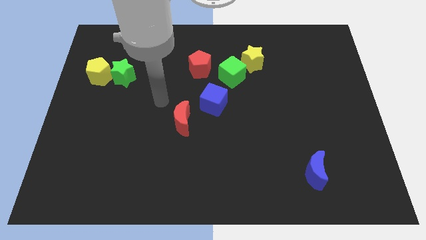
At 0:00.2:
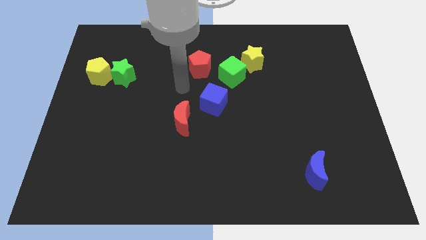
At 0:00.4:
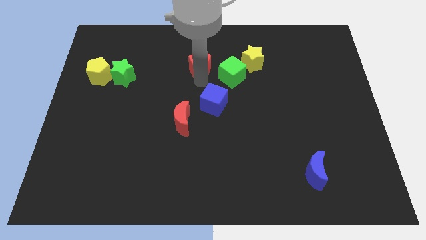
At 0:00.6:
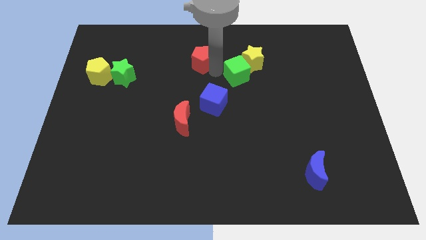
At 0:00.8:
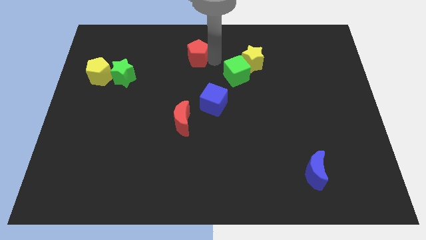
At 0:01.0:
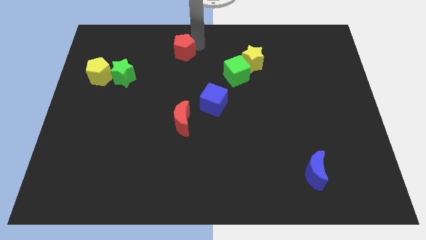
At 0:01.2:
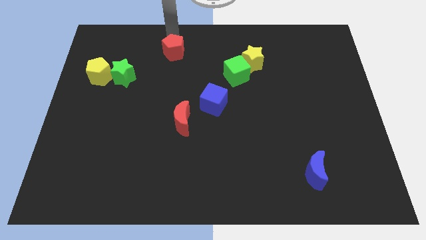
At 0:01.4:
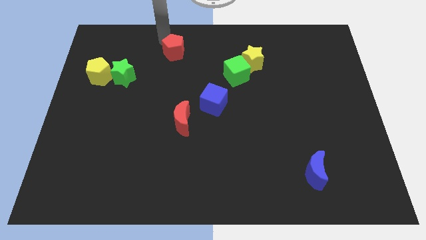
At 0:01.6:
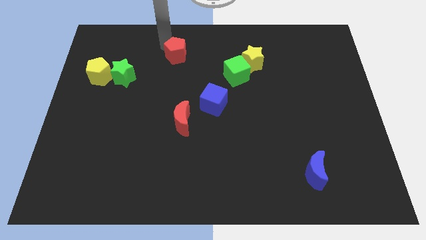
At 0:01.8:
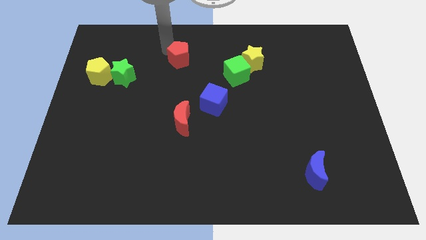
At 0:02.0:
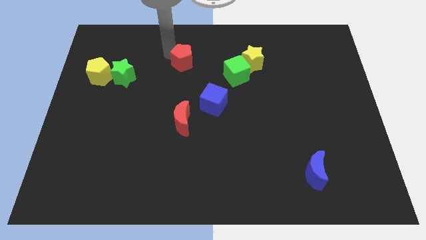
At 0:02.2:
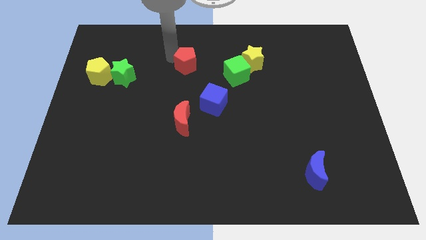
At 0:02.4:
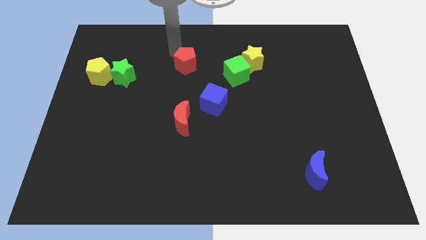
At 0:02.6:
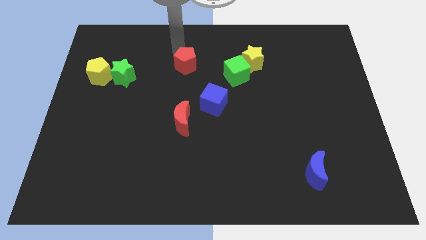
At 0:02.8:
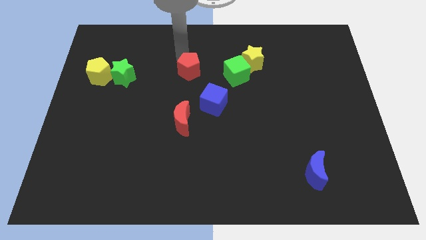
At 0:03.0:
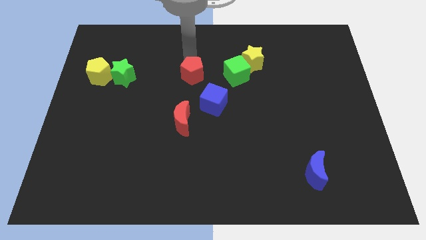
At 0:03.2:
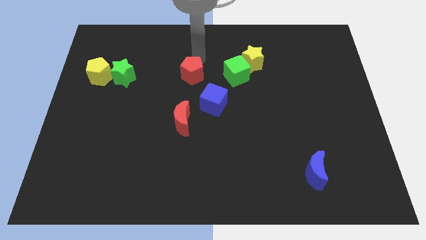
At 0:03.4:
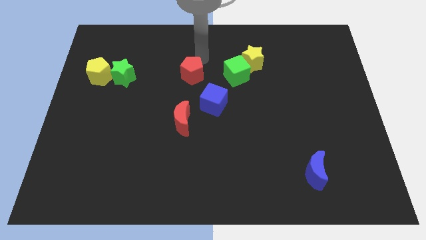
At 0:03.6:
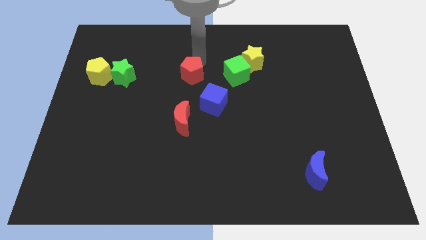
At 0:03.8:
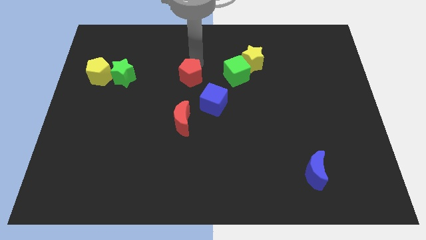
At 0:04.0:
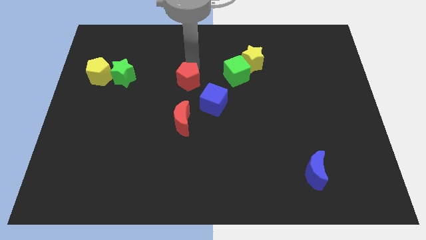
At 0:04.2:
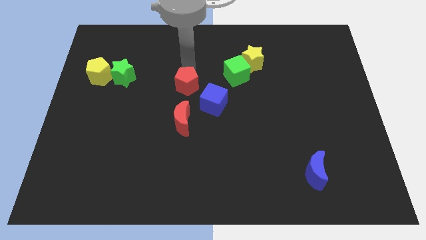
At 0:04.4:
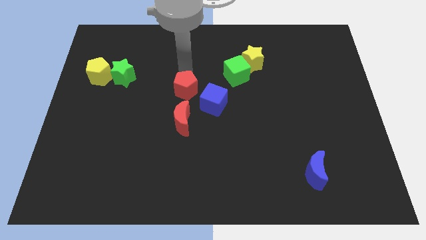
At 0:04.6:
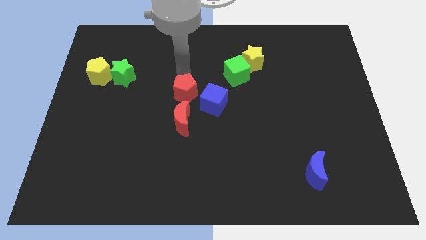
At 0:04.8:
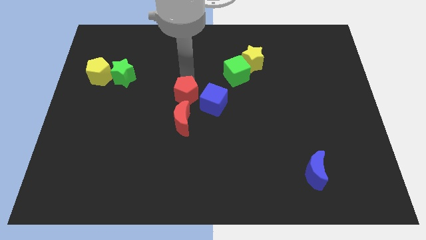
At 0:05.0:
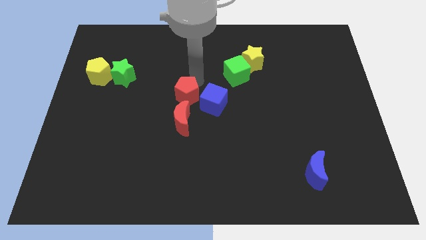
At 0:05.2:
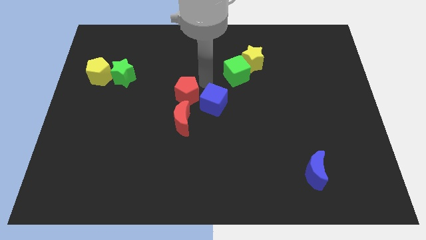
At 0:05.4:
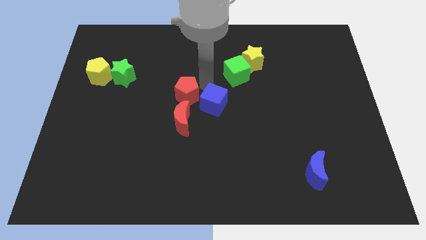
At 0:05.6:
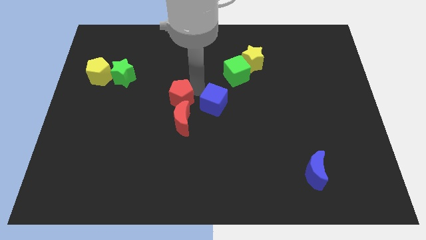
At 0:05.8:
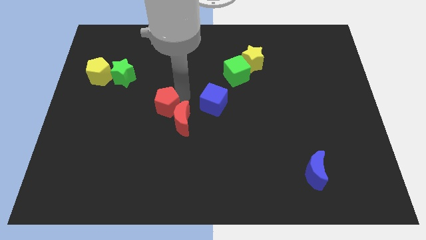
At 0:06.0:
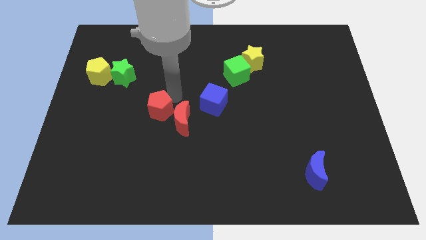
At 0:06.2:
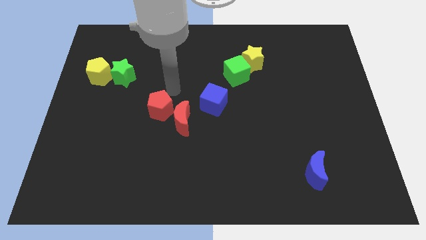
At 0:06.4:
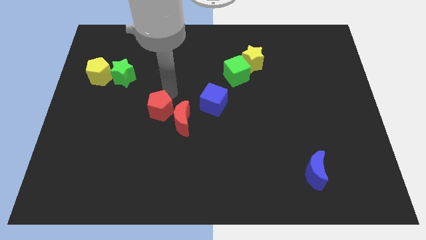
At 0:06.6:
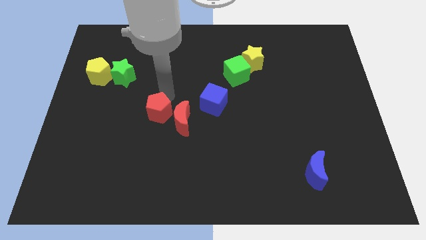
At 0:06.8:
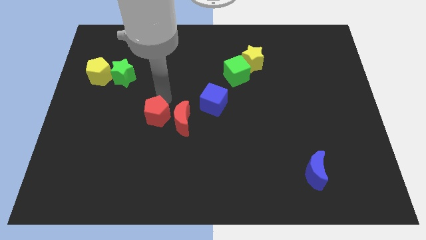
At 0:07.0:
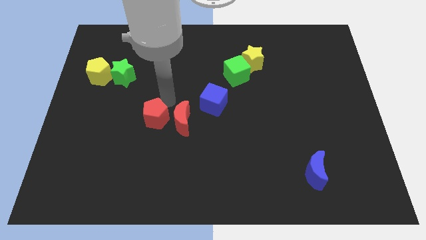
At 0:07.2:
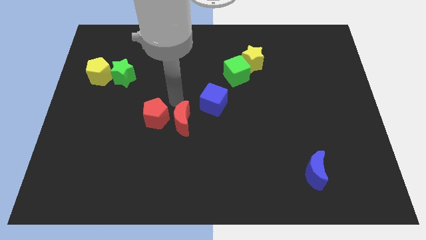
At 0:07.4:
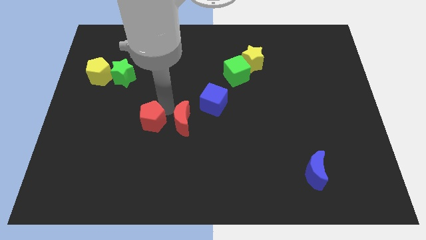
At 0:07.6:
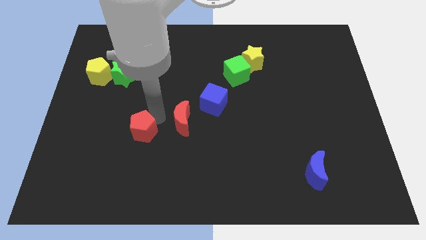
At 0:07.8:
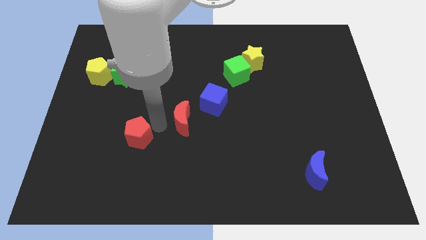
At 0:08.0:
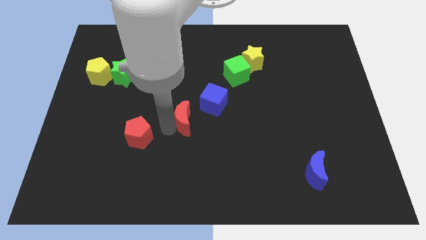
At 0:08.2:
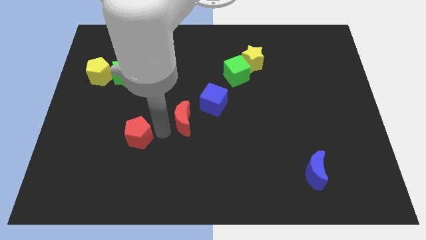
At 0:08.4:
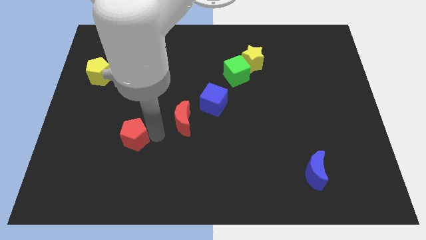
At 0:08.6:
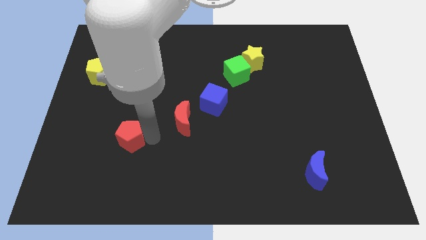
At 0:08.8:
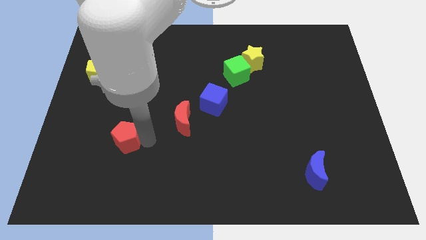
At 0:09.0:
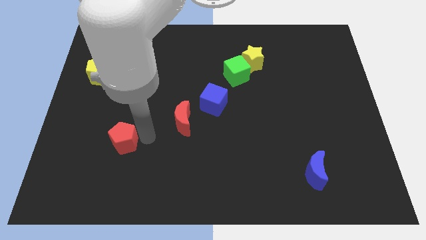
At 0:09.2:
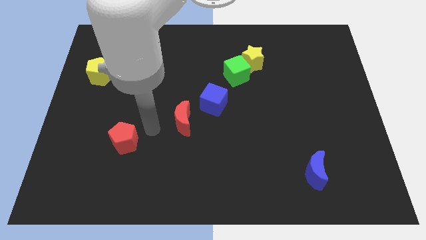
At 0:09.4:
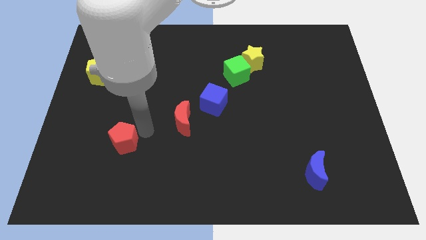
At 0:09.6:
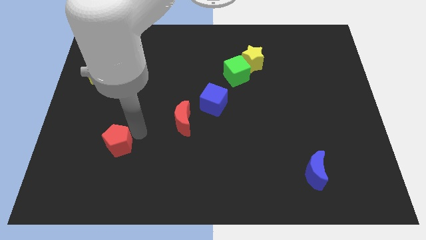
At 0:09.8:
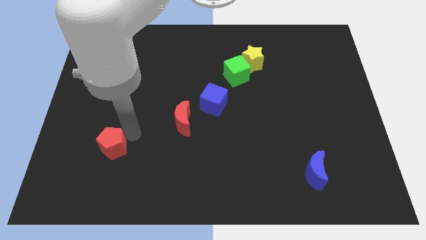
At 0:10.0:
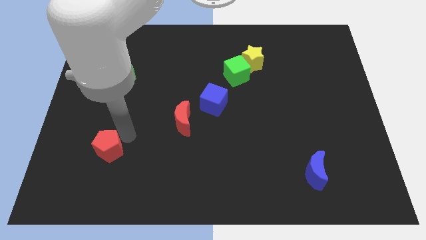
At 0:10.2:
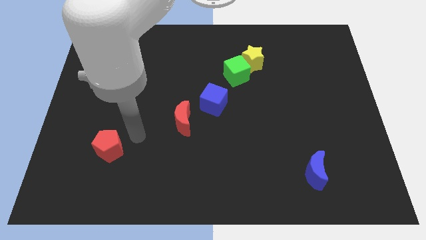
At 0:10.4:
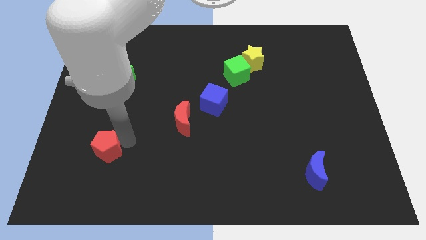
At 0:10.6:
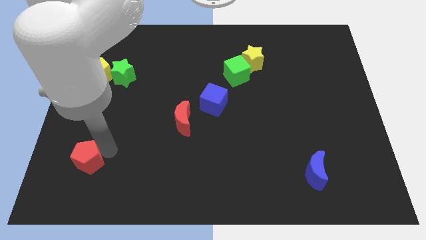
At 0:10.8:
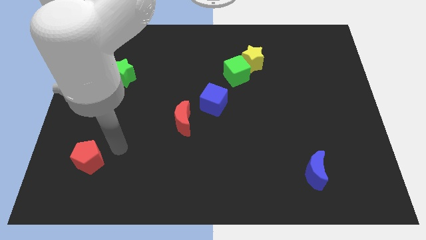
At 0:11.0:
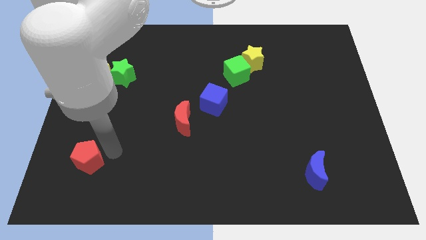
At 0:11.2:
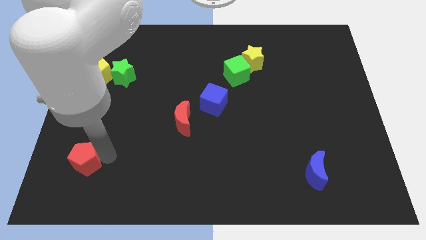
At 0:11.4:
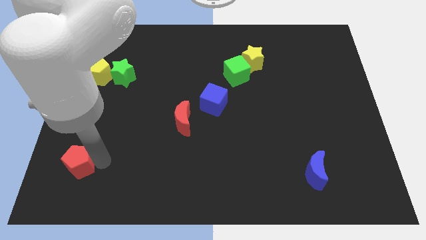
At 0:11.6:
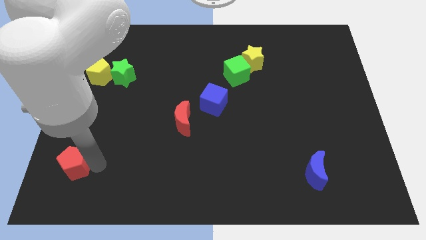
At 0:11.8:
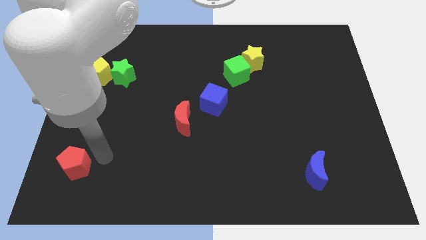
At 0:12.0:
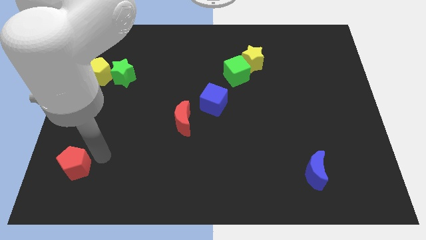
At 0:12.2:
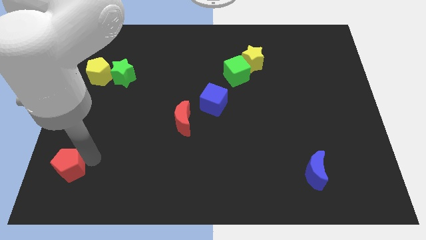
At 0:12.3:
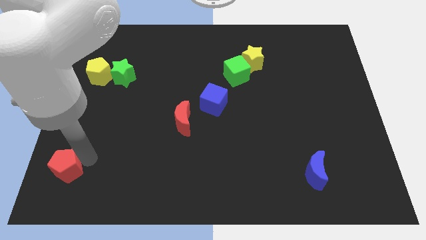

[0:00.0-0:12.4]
put the red pentagon to the bottom left corner
